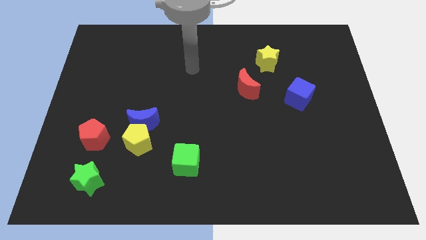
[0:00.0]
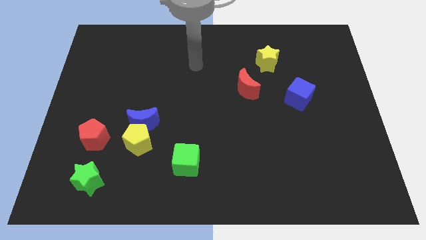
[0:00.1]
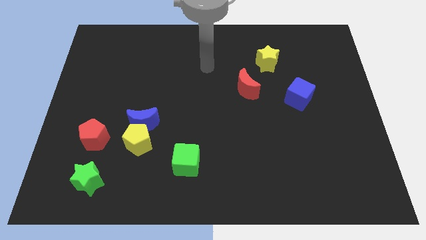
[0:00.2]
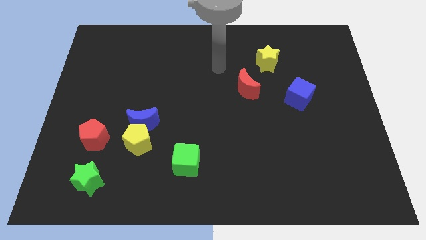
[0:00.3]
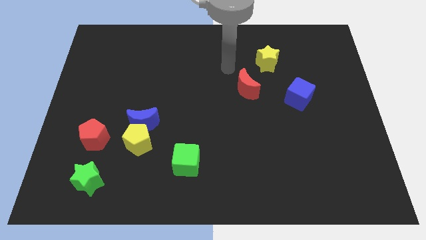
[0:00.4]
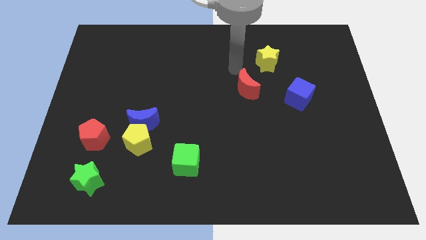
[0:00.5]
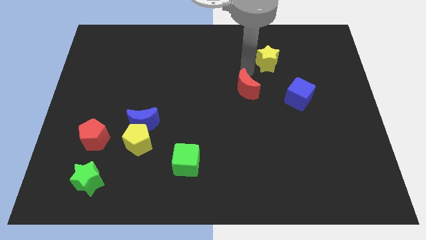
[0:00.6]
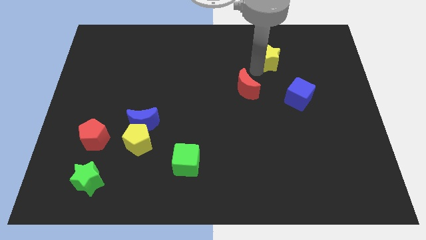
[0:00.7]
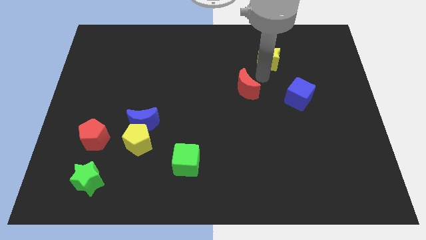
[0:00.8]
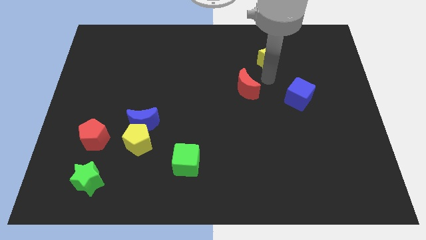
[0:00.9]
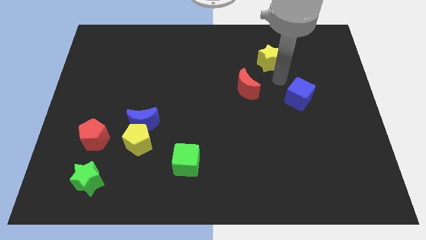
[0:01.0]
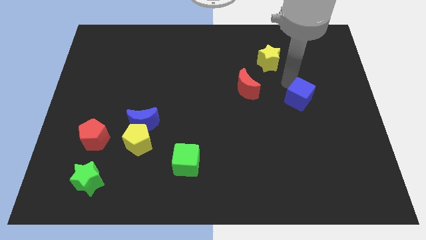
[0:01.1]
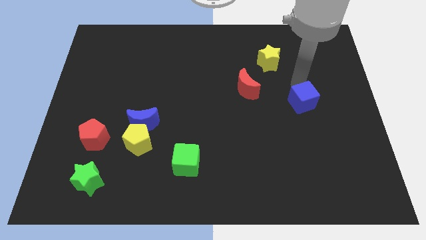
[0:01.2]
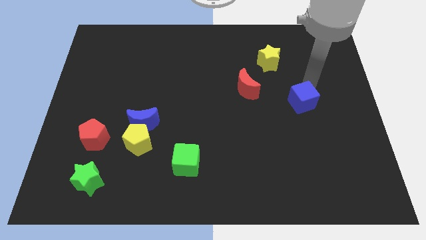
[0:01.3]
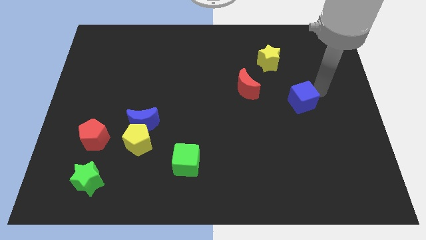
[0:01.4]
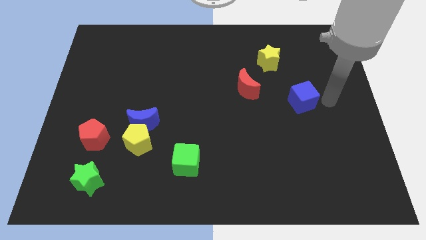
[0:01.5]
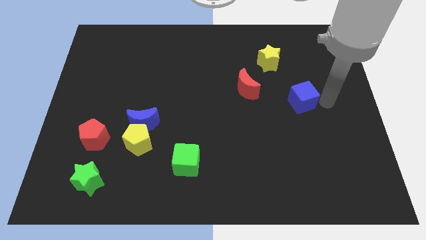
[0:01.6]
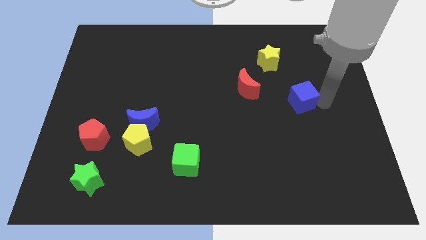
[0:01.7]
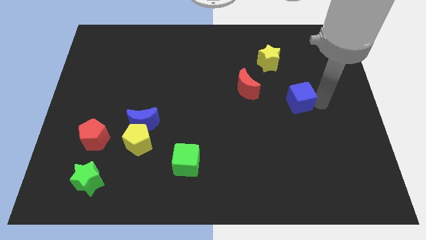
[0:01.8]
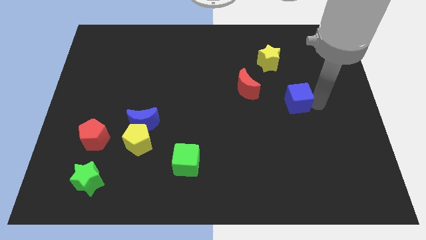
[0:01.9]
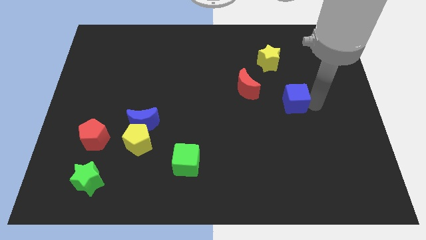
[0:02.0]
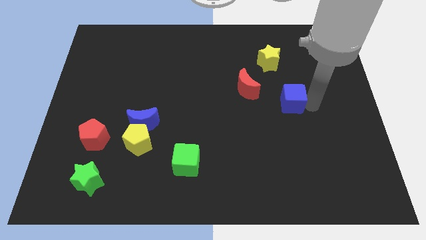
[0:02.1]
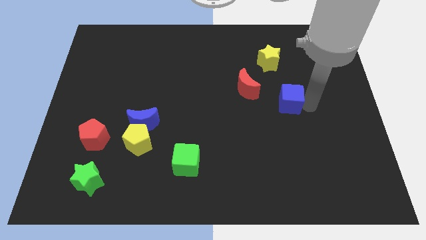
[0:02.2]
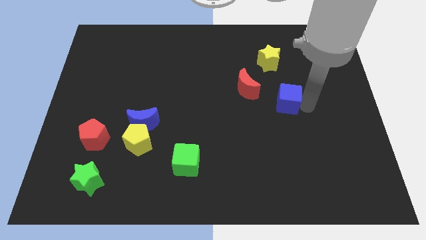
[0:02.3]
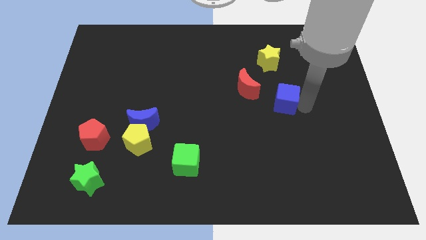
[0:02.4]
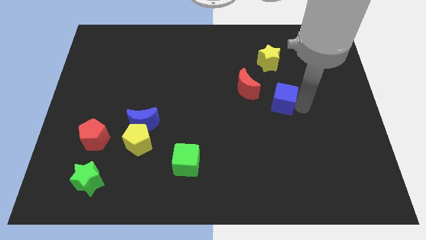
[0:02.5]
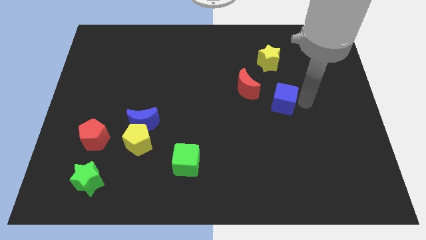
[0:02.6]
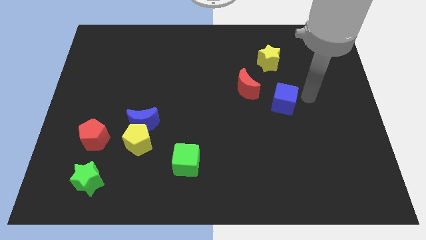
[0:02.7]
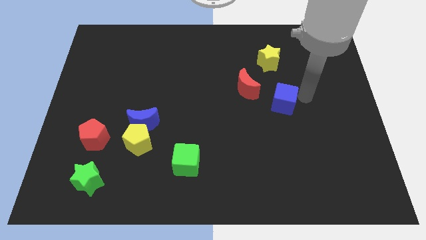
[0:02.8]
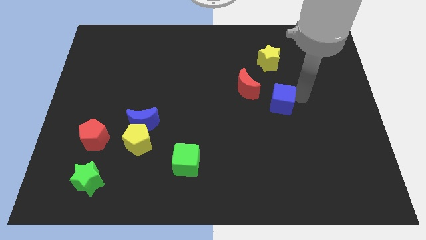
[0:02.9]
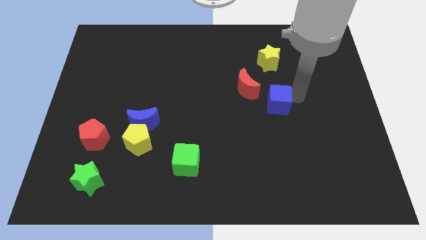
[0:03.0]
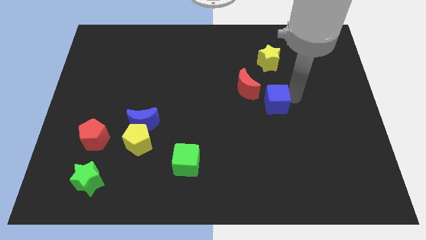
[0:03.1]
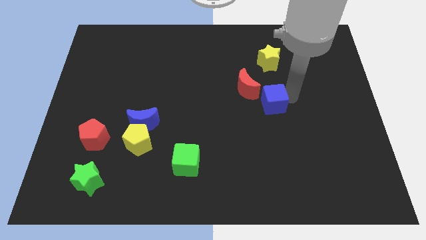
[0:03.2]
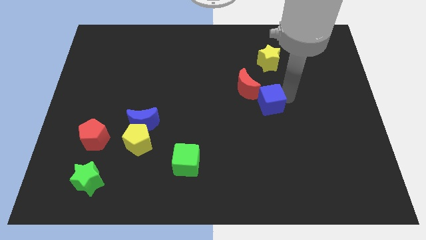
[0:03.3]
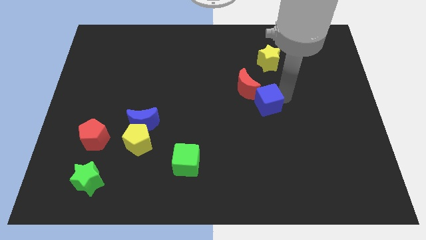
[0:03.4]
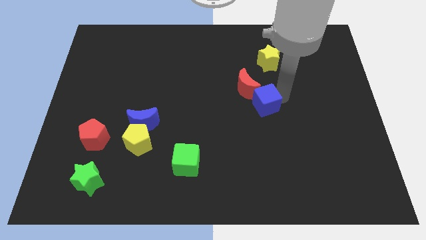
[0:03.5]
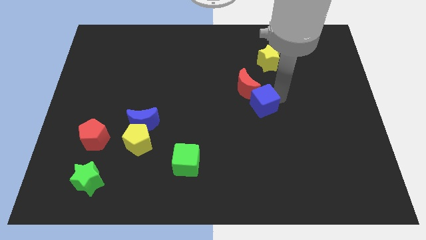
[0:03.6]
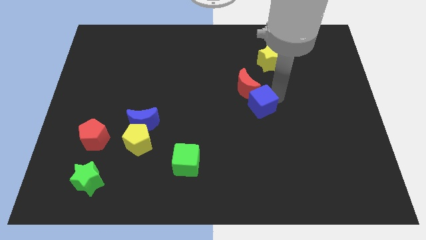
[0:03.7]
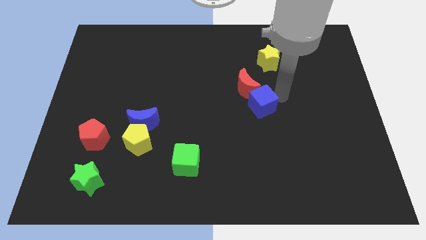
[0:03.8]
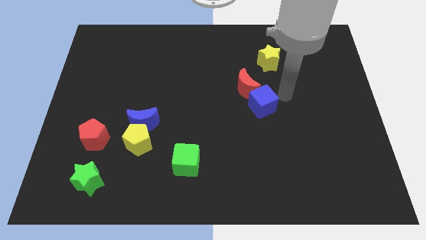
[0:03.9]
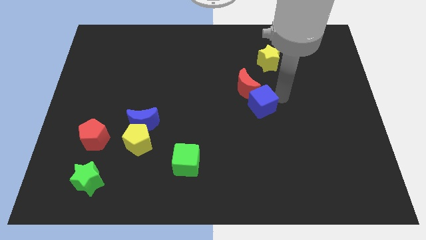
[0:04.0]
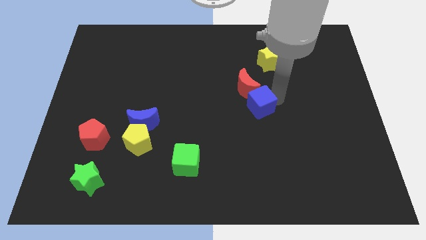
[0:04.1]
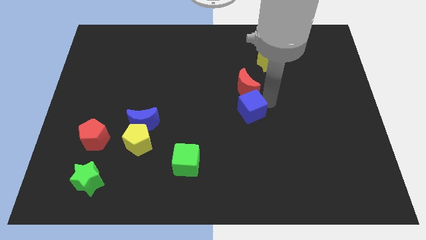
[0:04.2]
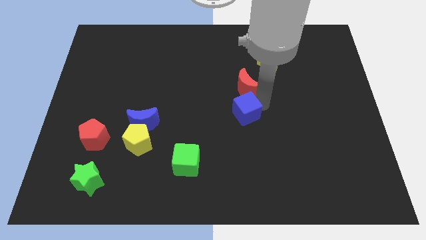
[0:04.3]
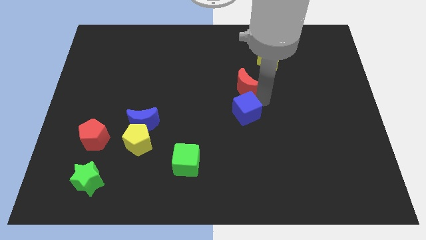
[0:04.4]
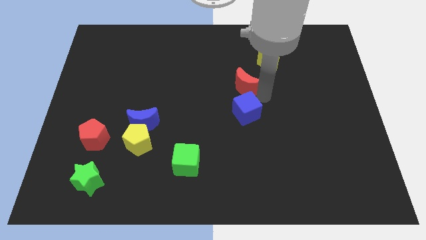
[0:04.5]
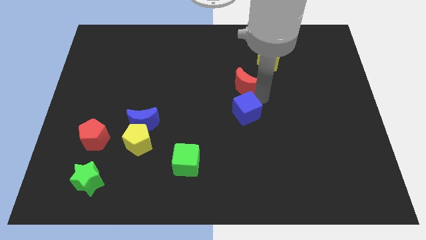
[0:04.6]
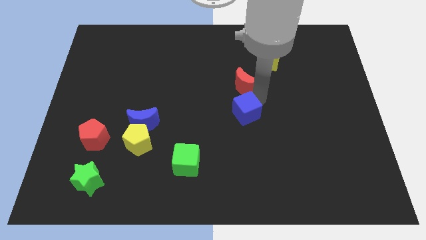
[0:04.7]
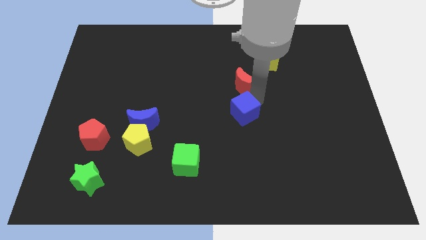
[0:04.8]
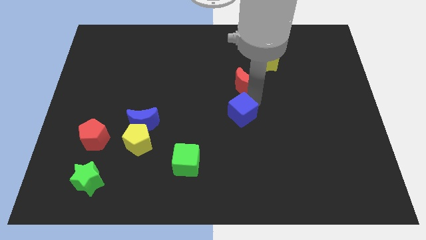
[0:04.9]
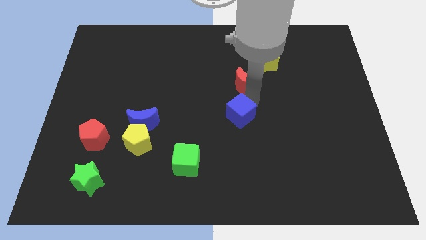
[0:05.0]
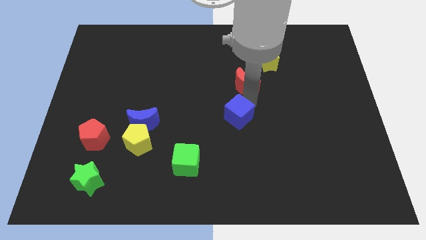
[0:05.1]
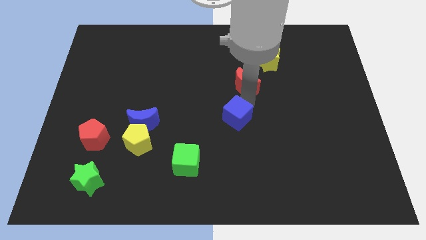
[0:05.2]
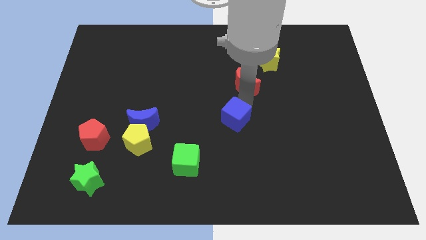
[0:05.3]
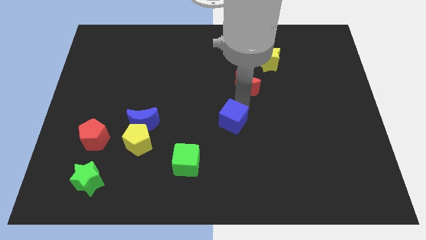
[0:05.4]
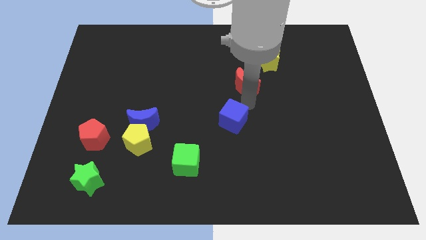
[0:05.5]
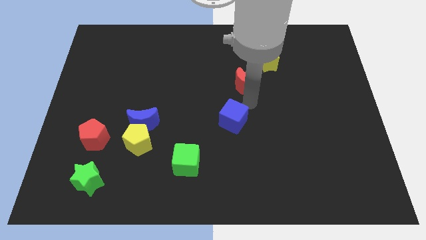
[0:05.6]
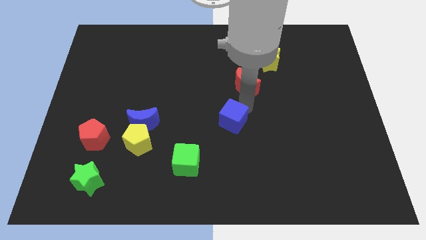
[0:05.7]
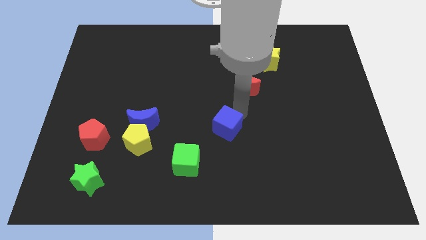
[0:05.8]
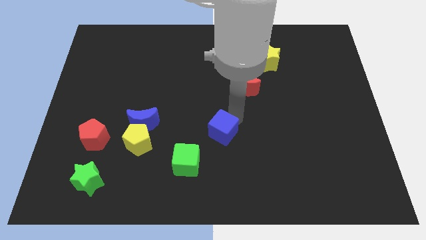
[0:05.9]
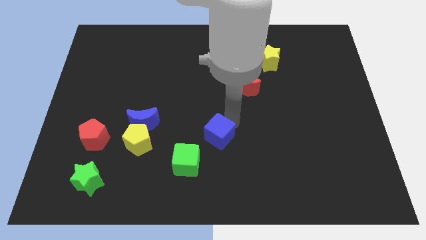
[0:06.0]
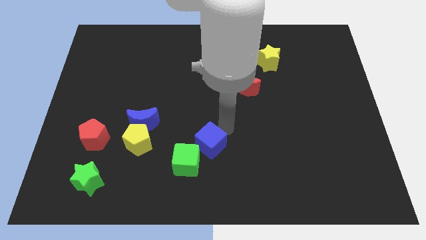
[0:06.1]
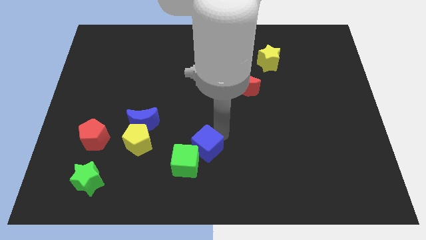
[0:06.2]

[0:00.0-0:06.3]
slide the blue cube to the green cube

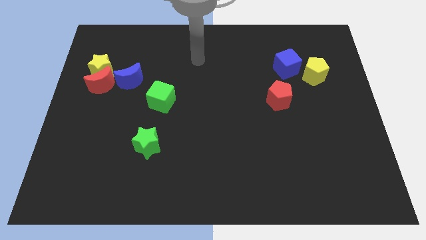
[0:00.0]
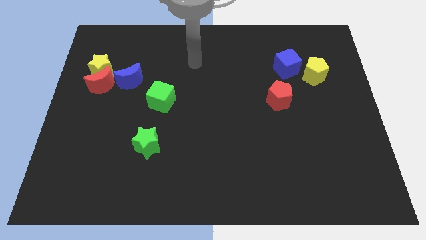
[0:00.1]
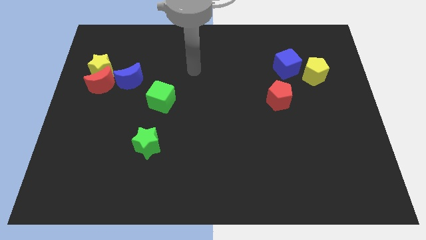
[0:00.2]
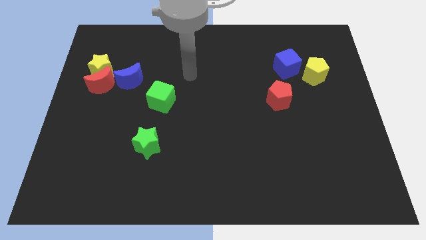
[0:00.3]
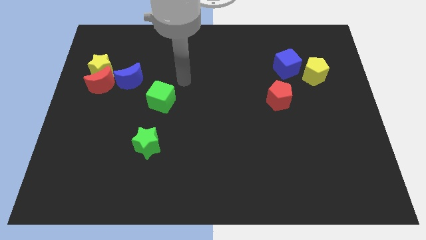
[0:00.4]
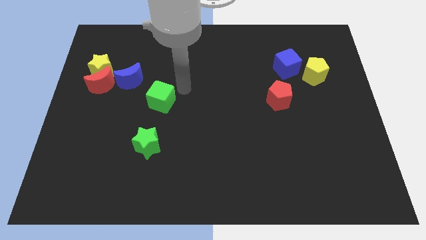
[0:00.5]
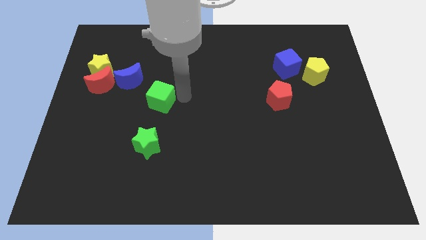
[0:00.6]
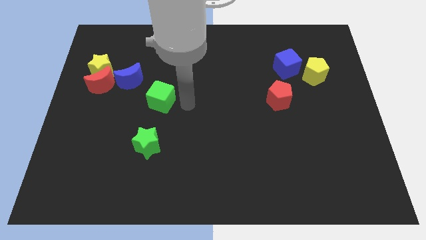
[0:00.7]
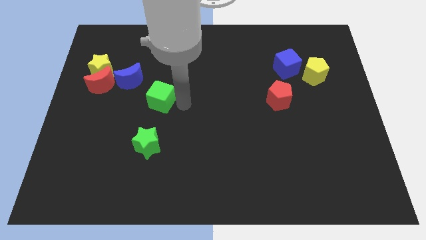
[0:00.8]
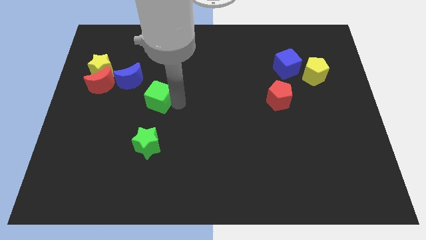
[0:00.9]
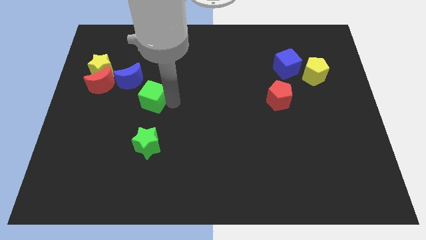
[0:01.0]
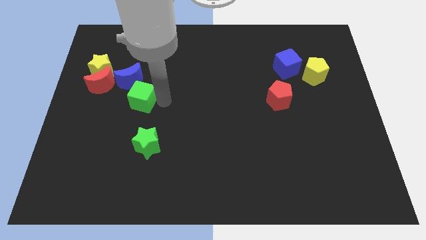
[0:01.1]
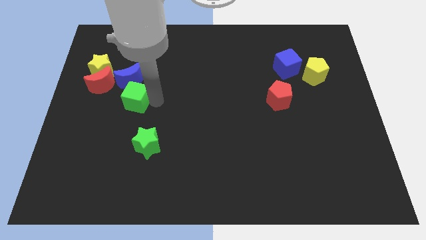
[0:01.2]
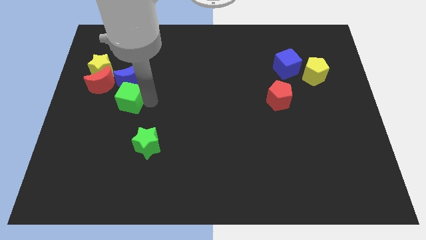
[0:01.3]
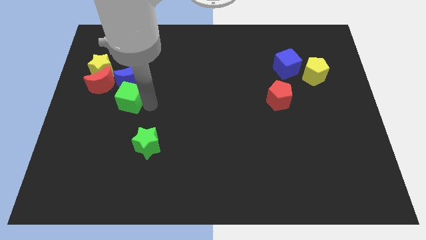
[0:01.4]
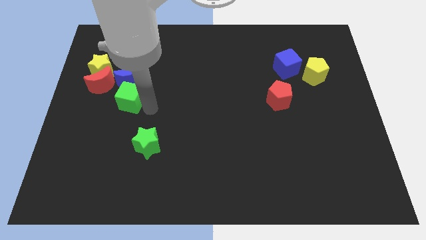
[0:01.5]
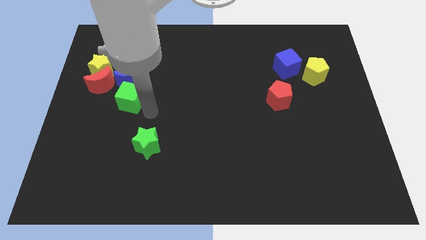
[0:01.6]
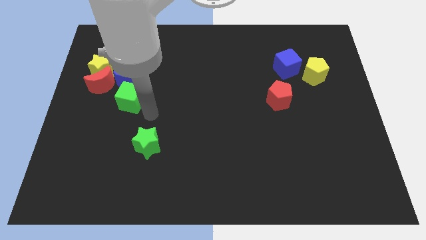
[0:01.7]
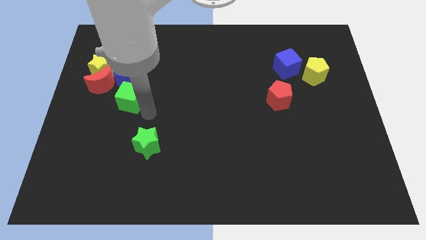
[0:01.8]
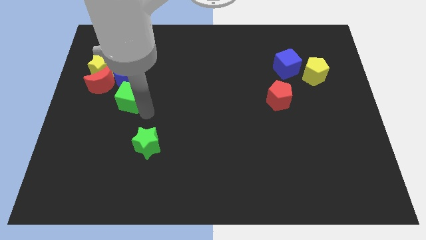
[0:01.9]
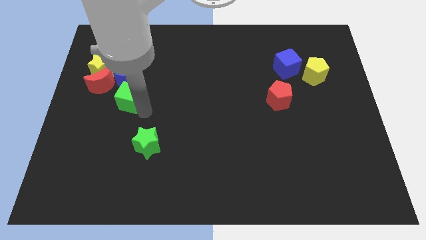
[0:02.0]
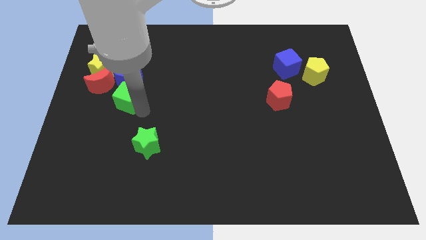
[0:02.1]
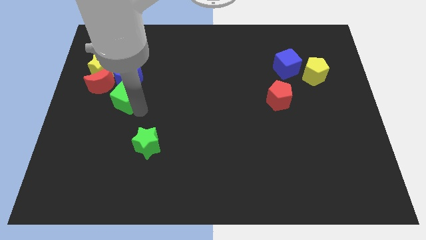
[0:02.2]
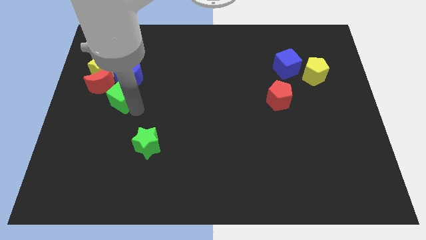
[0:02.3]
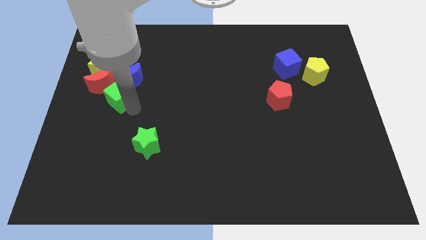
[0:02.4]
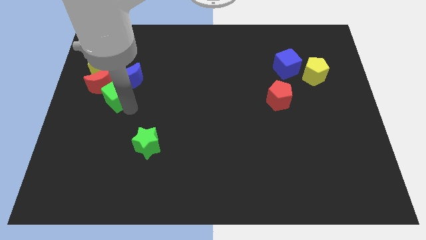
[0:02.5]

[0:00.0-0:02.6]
slide the green cube to the red moon
